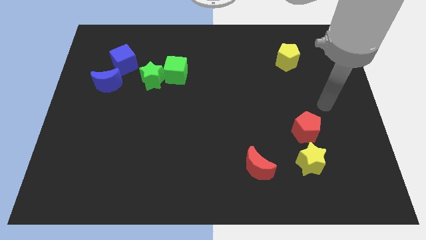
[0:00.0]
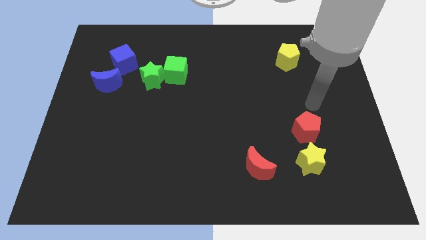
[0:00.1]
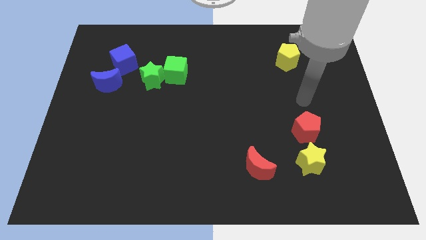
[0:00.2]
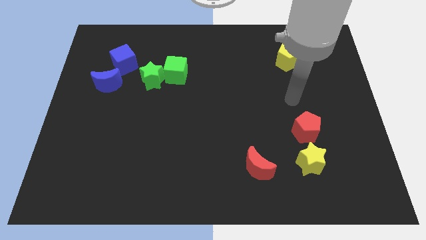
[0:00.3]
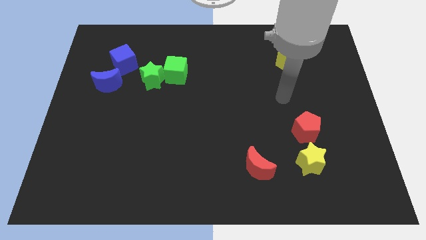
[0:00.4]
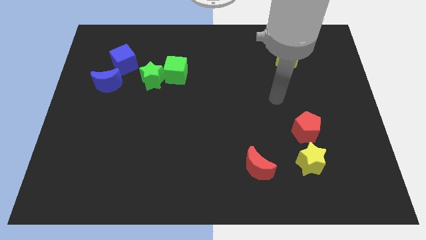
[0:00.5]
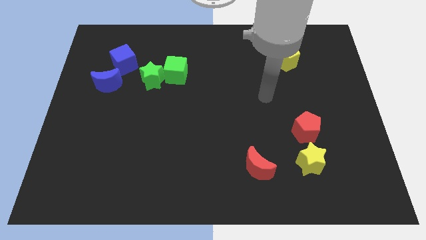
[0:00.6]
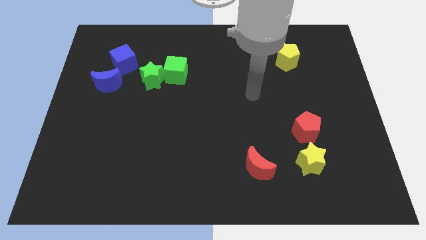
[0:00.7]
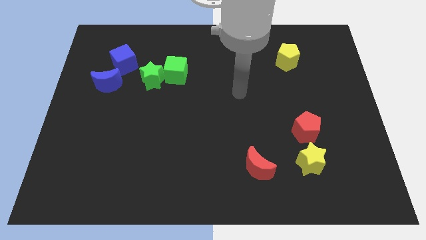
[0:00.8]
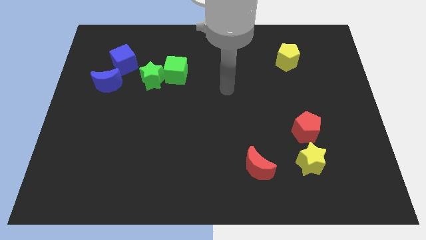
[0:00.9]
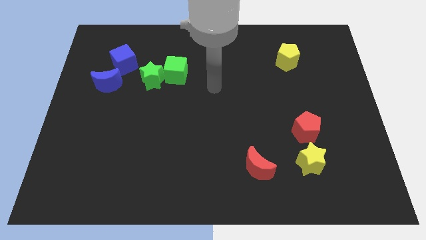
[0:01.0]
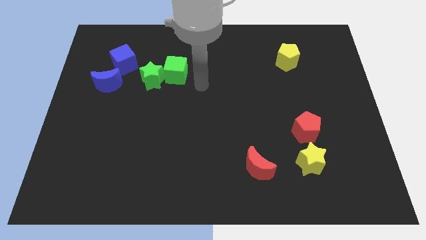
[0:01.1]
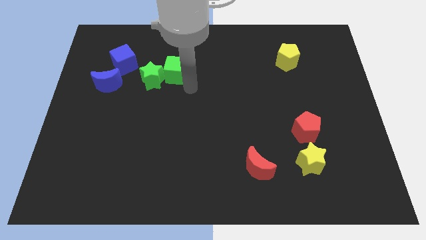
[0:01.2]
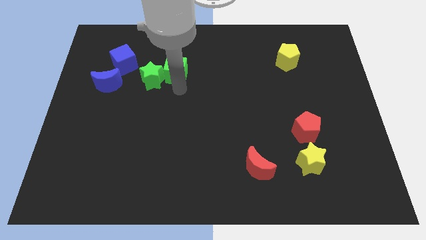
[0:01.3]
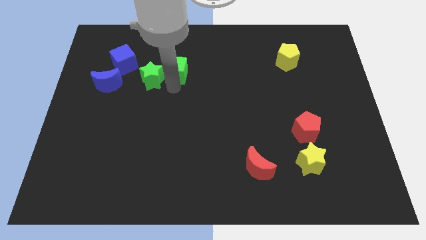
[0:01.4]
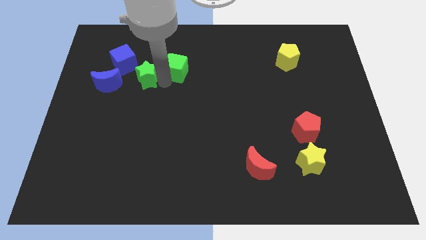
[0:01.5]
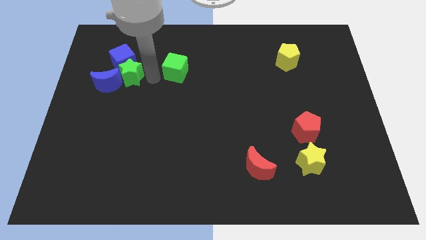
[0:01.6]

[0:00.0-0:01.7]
separate the green cube from the green star

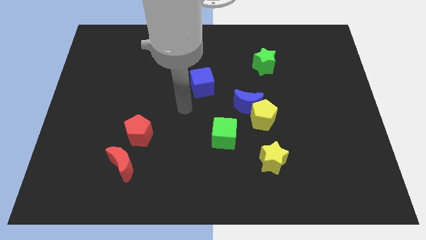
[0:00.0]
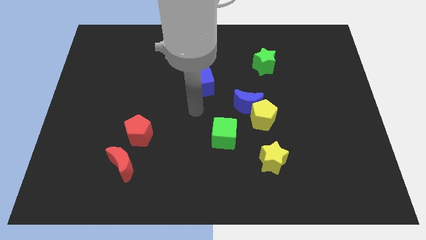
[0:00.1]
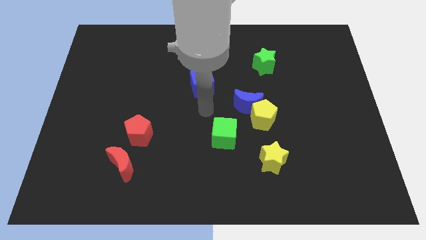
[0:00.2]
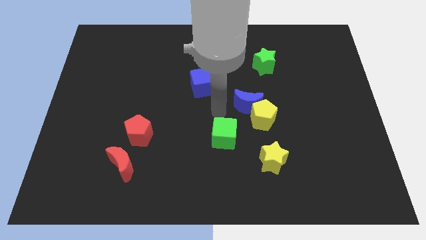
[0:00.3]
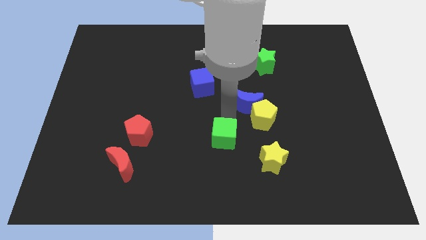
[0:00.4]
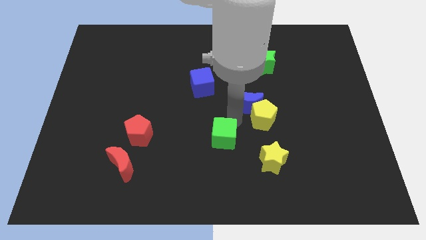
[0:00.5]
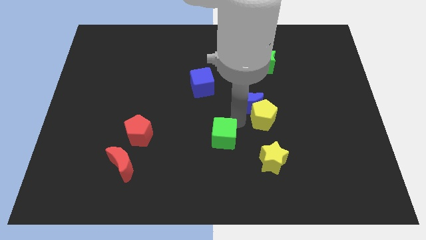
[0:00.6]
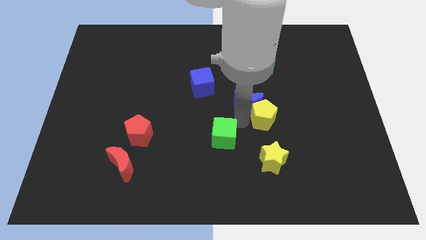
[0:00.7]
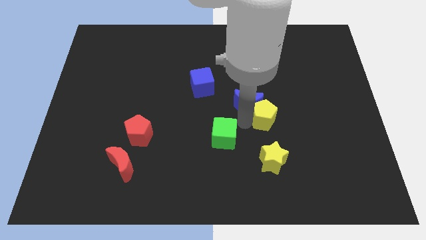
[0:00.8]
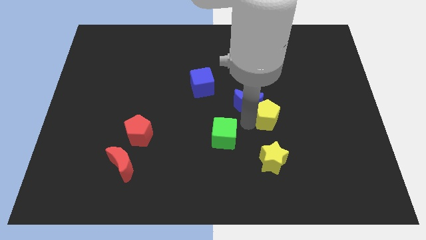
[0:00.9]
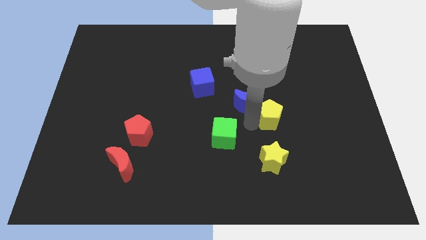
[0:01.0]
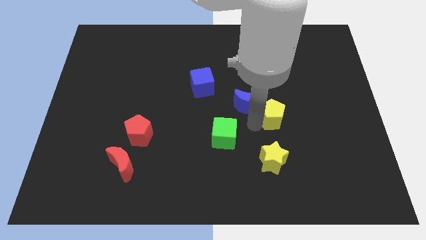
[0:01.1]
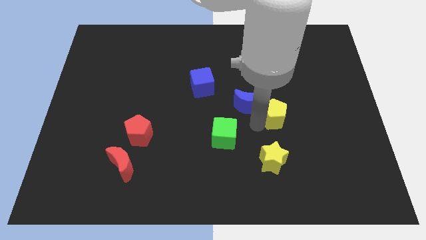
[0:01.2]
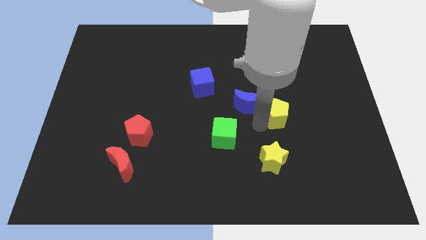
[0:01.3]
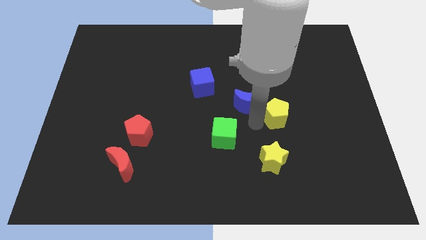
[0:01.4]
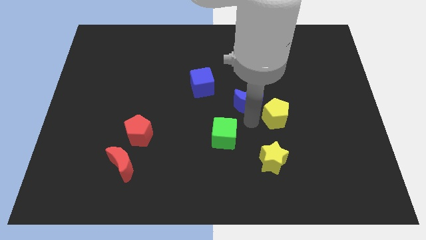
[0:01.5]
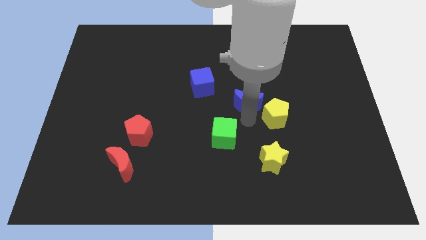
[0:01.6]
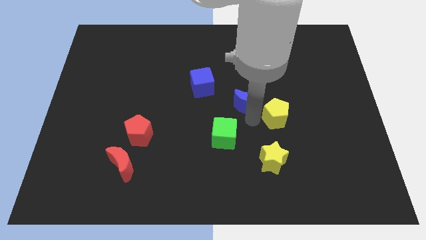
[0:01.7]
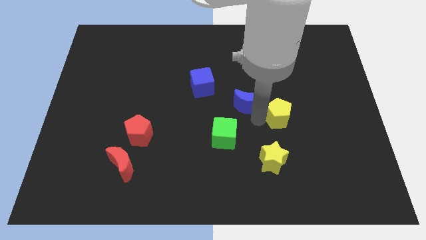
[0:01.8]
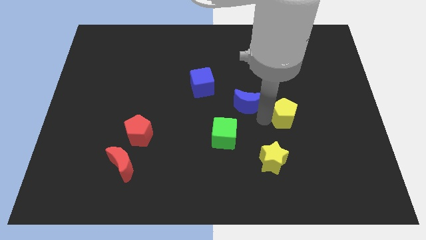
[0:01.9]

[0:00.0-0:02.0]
pull the yellow pentagon apart from the blue moon and green cube

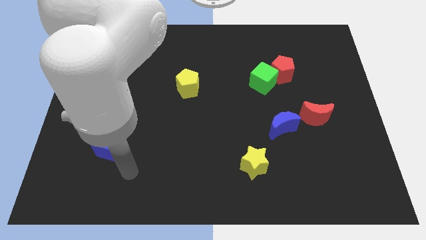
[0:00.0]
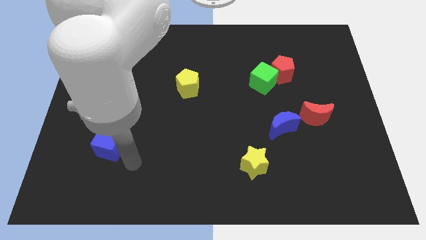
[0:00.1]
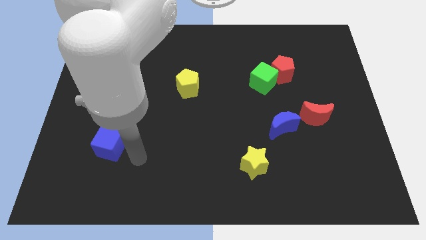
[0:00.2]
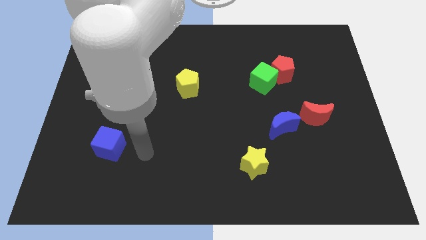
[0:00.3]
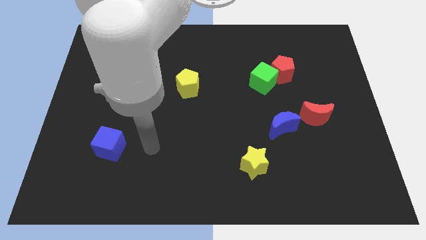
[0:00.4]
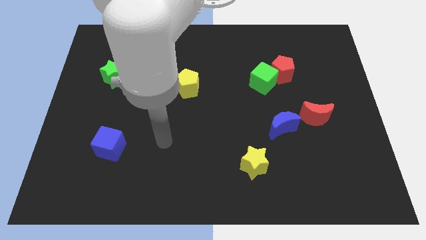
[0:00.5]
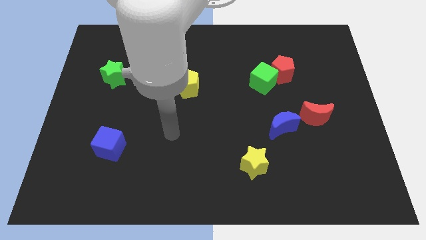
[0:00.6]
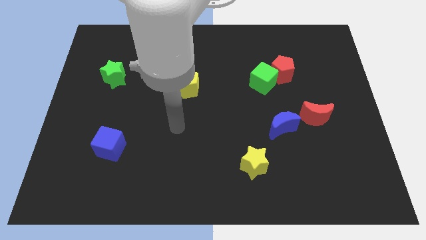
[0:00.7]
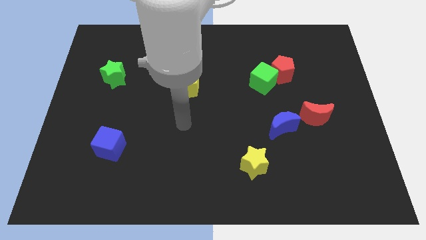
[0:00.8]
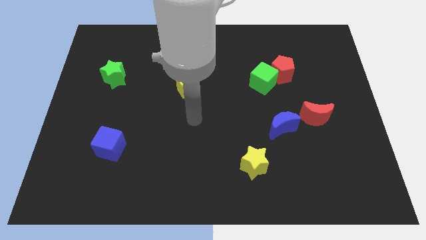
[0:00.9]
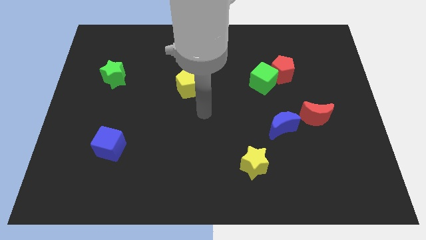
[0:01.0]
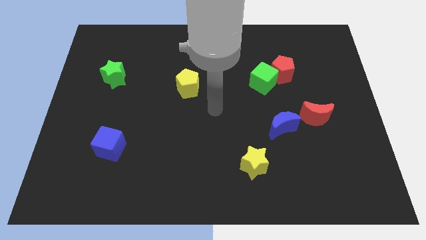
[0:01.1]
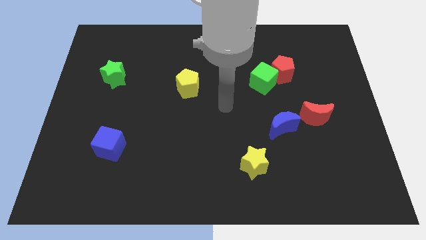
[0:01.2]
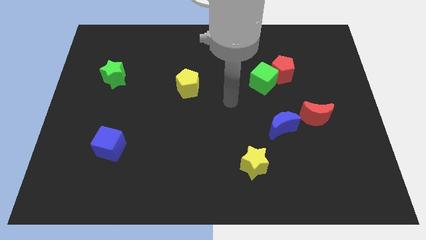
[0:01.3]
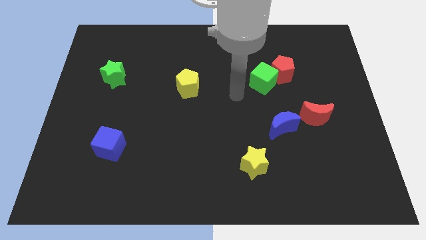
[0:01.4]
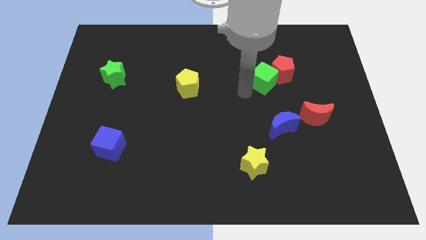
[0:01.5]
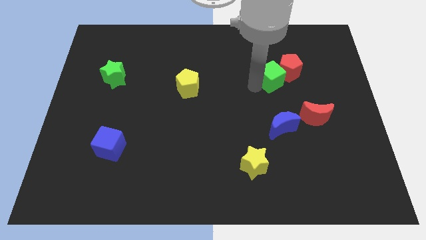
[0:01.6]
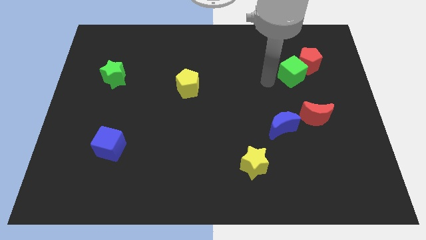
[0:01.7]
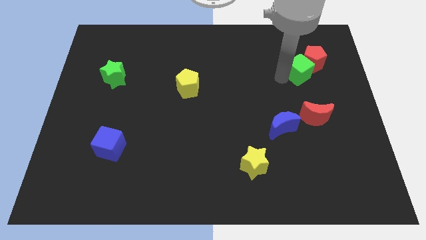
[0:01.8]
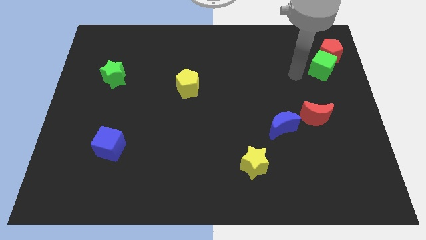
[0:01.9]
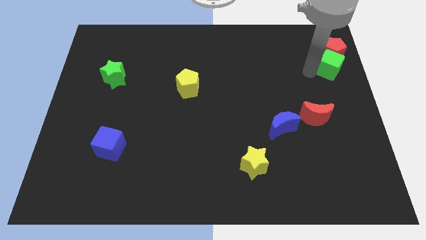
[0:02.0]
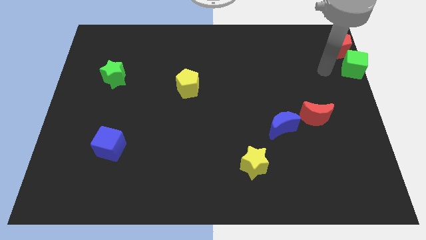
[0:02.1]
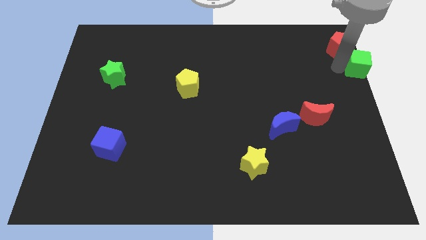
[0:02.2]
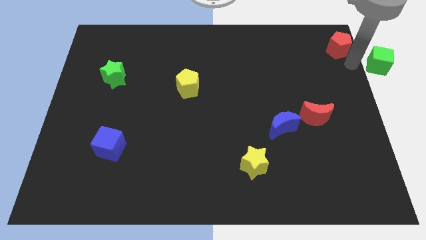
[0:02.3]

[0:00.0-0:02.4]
move the red pentagon away from the green cube

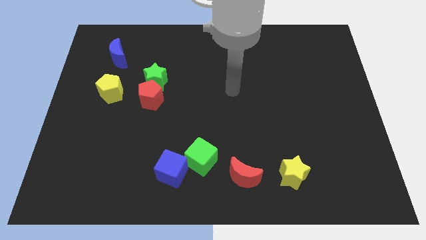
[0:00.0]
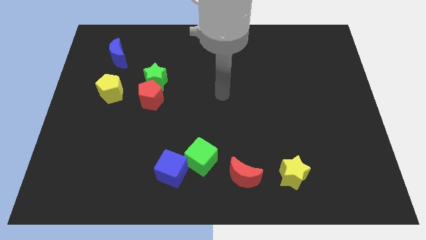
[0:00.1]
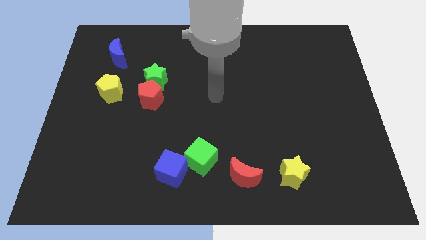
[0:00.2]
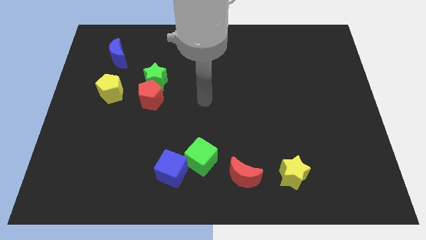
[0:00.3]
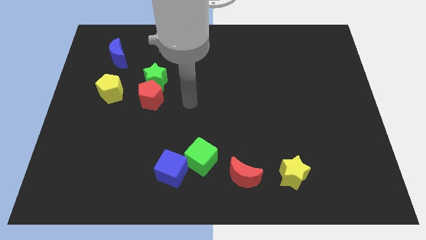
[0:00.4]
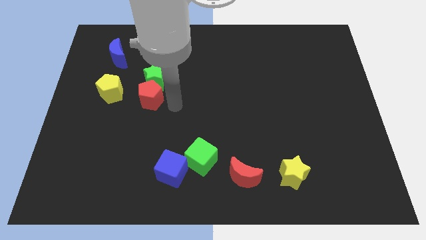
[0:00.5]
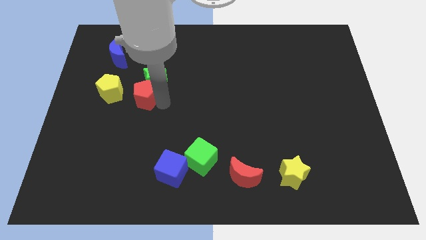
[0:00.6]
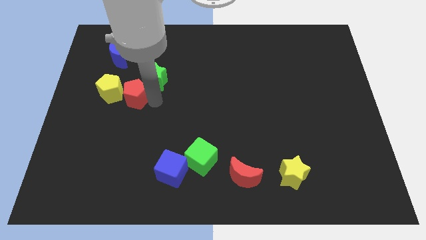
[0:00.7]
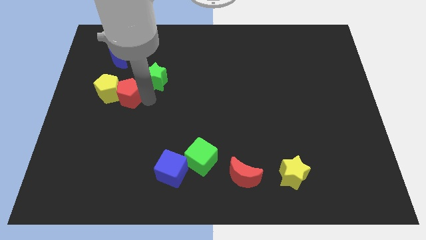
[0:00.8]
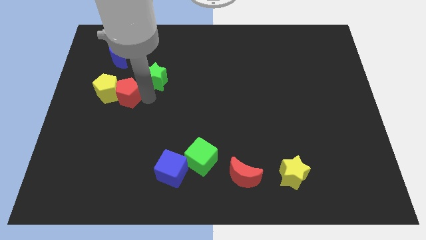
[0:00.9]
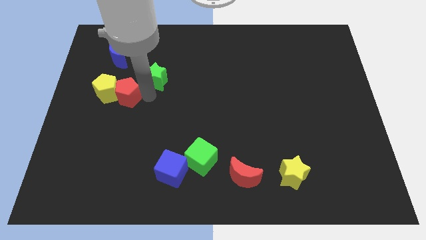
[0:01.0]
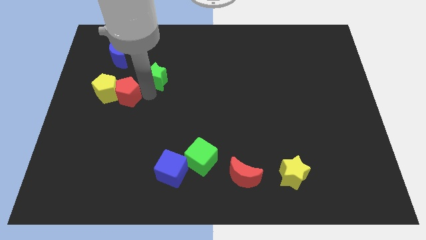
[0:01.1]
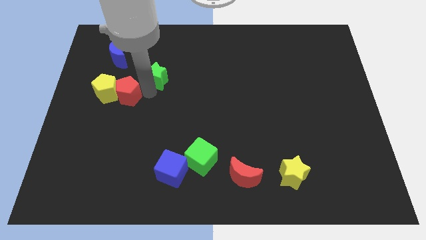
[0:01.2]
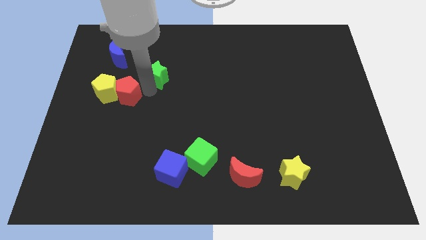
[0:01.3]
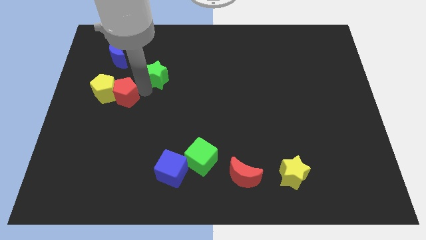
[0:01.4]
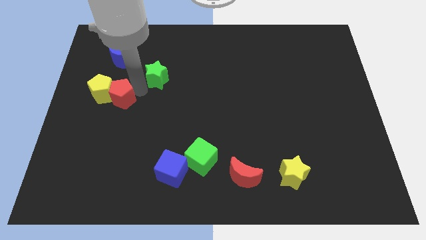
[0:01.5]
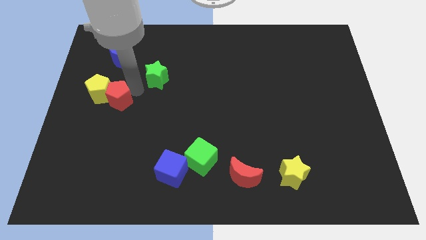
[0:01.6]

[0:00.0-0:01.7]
pull the green star apart from the red pentagon

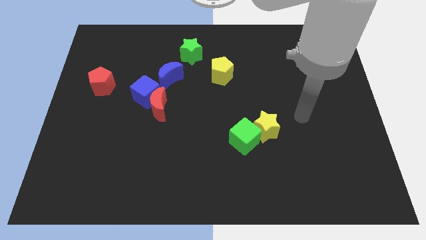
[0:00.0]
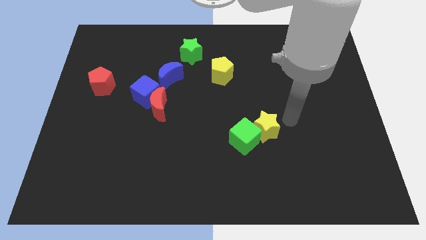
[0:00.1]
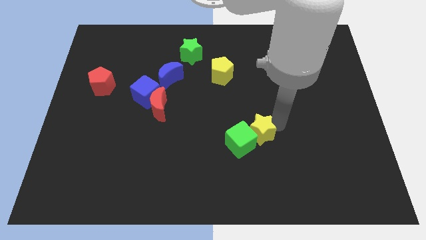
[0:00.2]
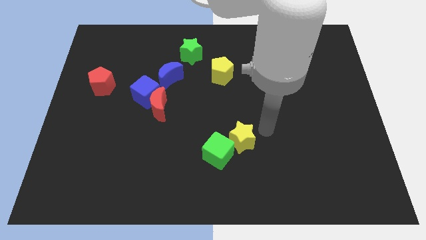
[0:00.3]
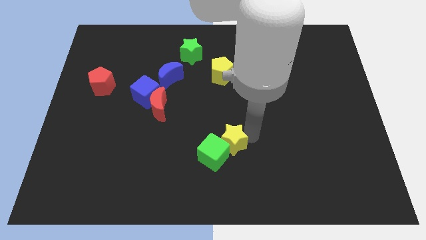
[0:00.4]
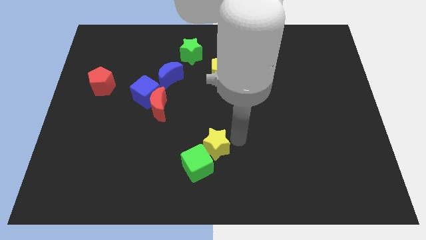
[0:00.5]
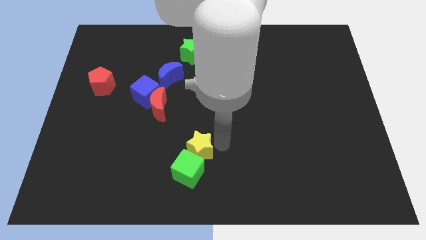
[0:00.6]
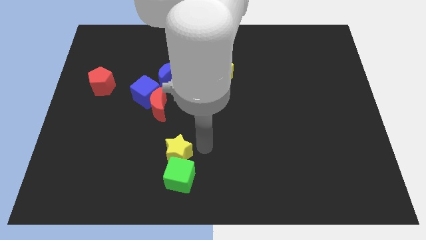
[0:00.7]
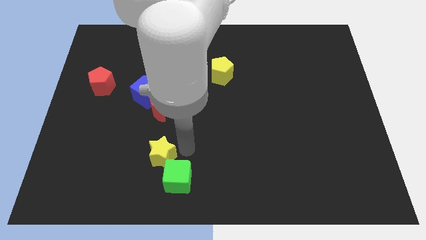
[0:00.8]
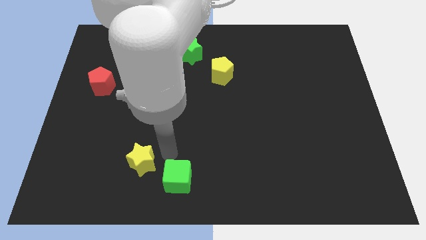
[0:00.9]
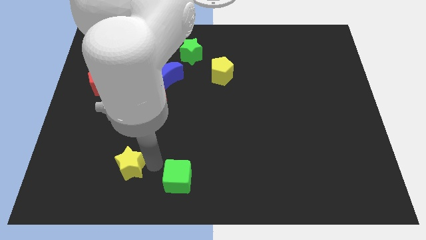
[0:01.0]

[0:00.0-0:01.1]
move the green cube away from the yellow star

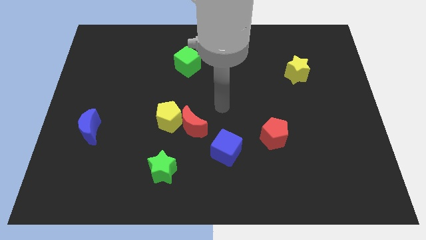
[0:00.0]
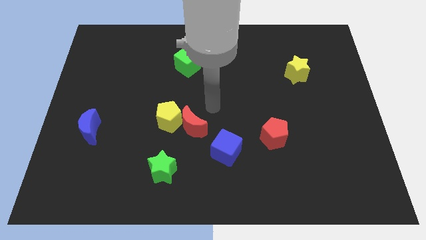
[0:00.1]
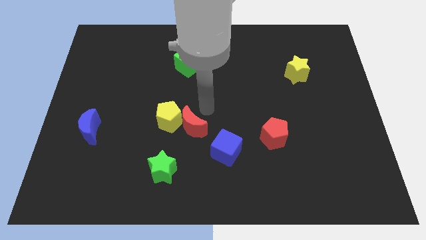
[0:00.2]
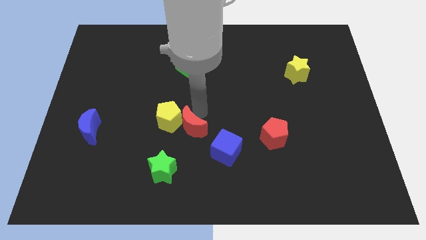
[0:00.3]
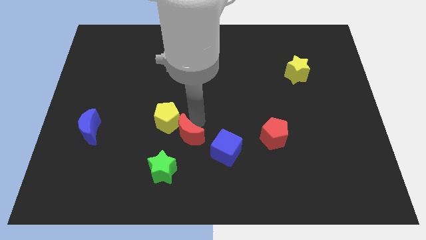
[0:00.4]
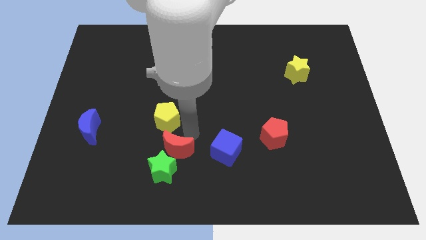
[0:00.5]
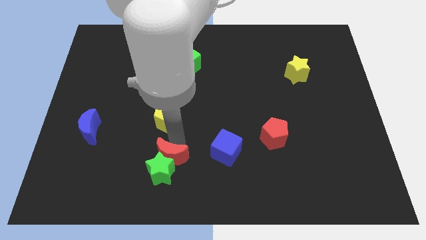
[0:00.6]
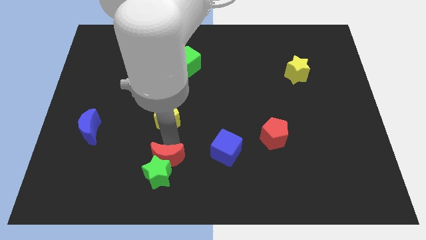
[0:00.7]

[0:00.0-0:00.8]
separate the yellow pentagon from the red moon
